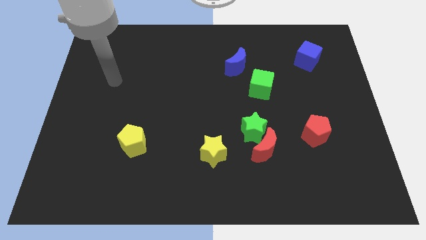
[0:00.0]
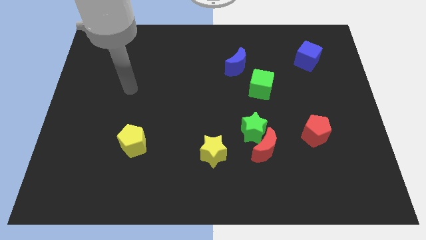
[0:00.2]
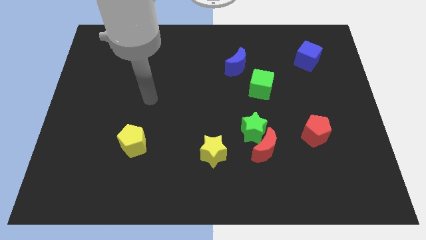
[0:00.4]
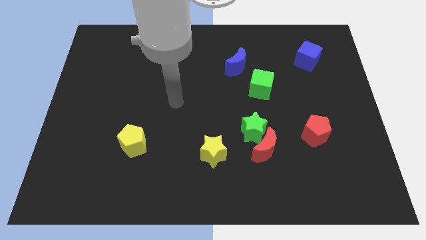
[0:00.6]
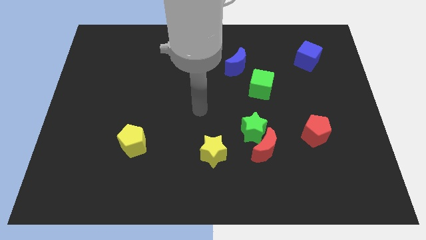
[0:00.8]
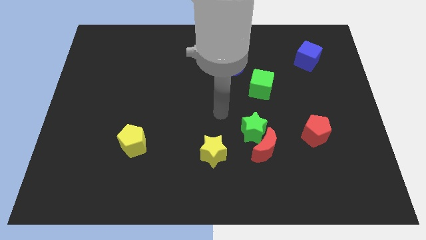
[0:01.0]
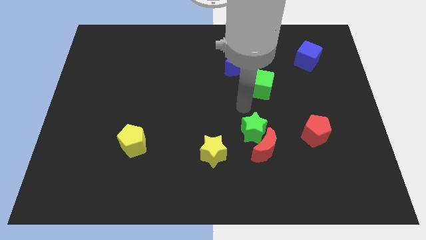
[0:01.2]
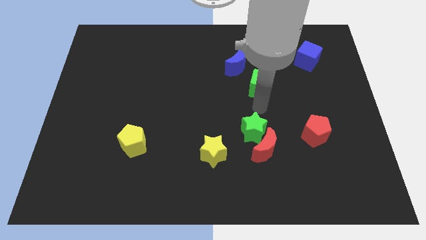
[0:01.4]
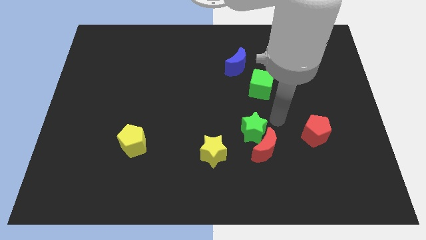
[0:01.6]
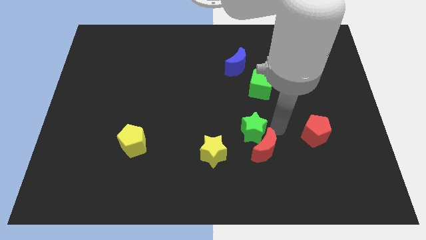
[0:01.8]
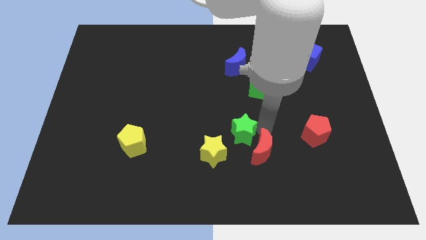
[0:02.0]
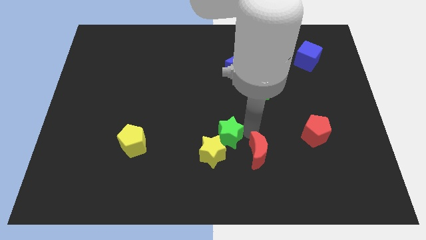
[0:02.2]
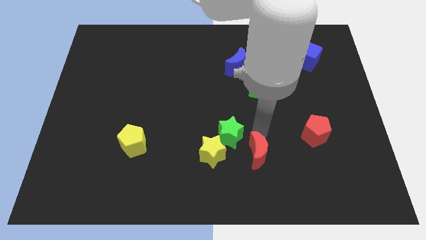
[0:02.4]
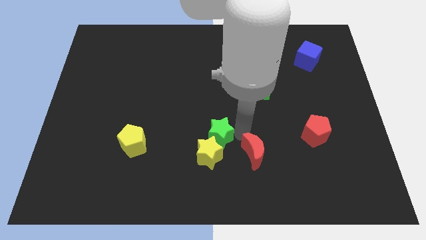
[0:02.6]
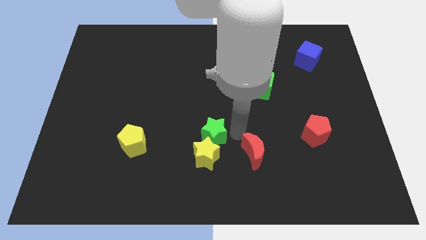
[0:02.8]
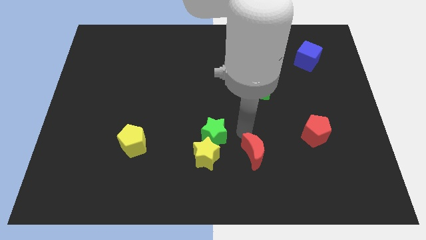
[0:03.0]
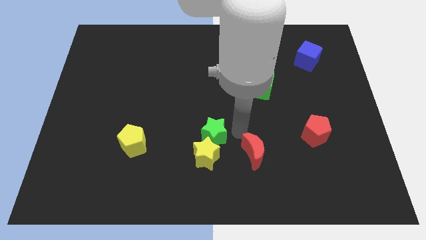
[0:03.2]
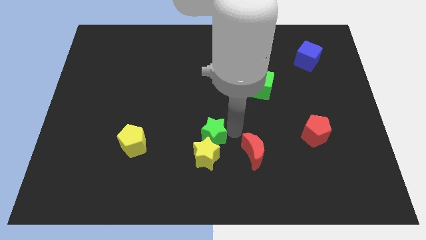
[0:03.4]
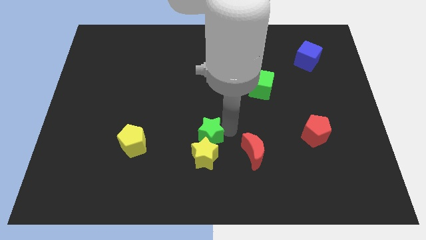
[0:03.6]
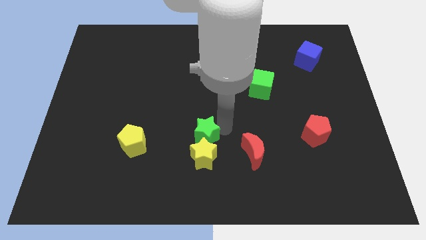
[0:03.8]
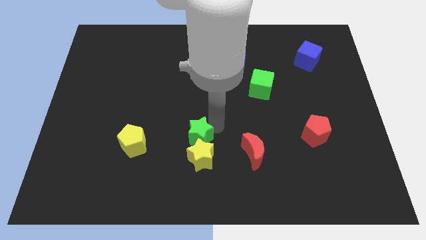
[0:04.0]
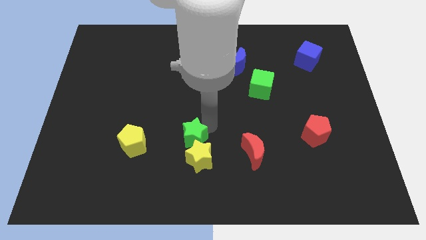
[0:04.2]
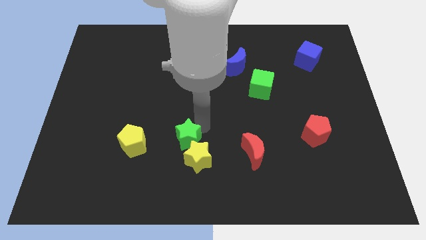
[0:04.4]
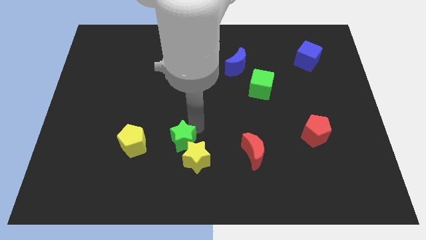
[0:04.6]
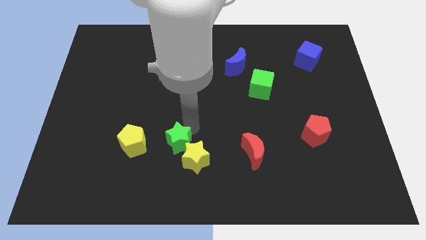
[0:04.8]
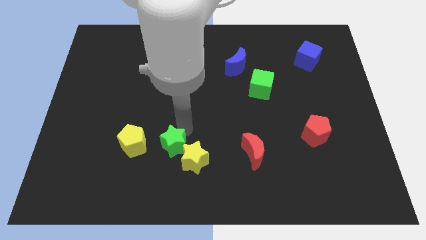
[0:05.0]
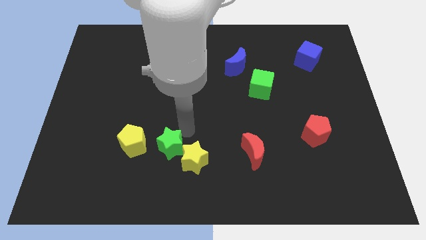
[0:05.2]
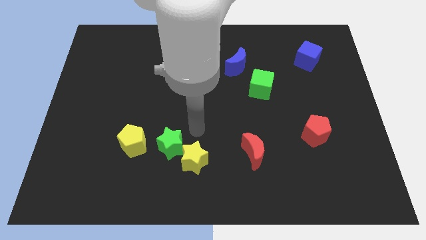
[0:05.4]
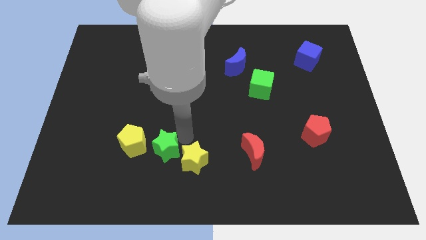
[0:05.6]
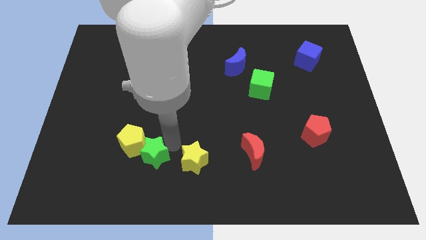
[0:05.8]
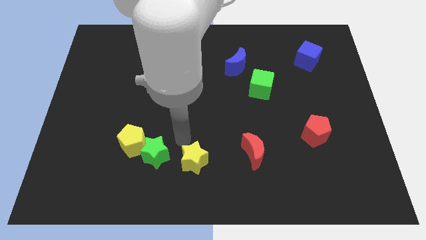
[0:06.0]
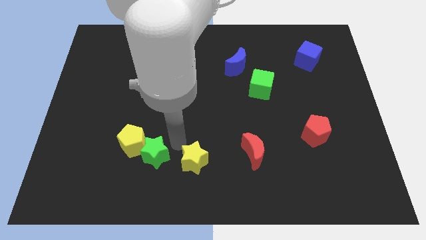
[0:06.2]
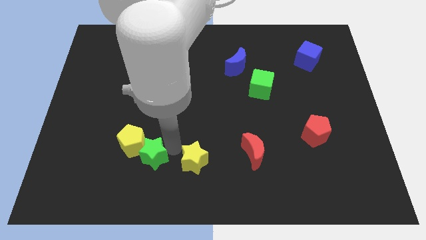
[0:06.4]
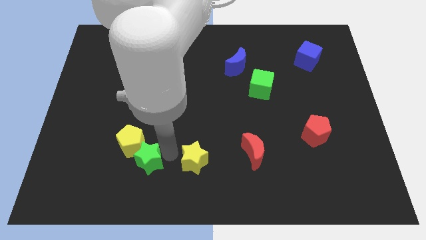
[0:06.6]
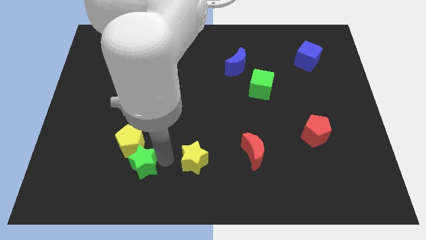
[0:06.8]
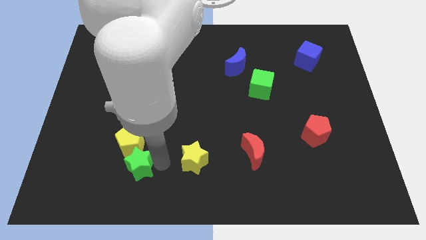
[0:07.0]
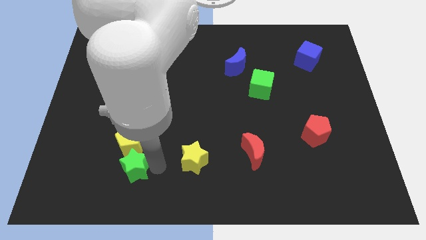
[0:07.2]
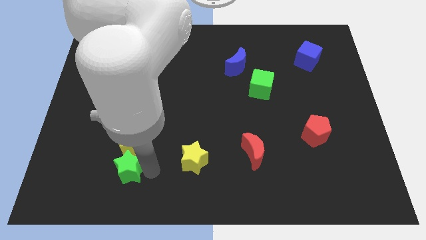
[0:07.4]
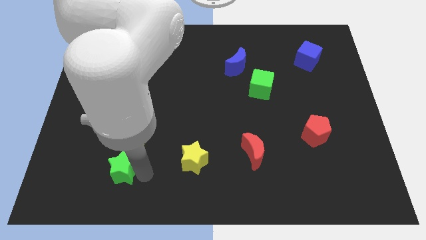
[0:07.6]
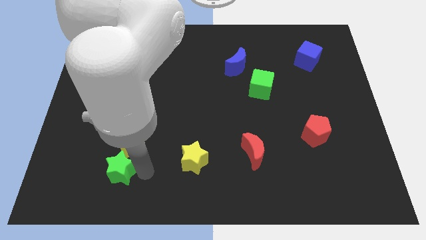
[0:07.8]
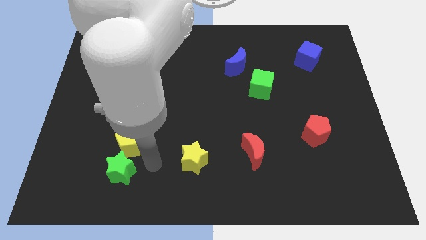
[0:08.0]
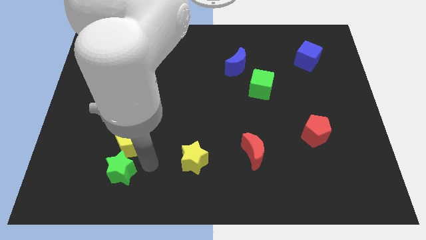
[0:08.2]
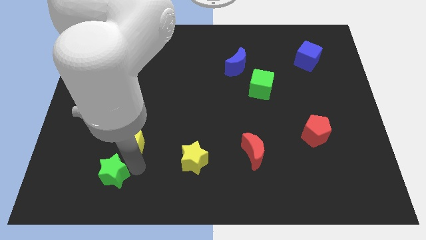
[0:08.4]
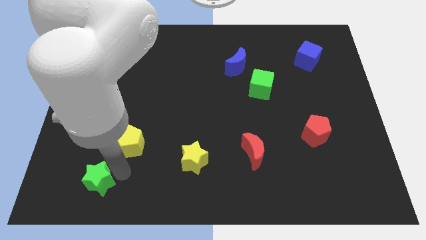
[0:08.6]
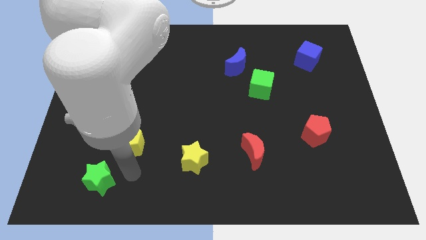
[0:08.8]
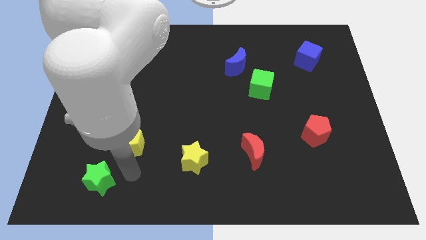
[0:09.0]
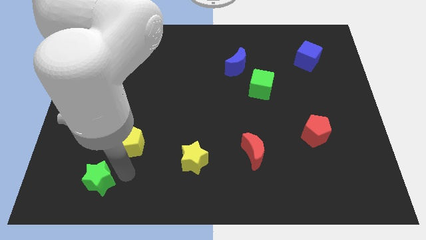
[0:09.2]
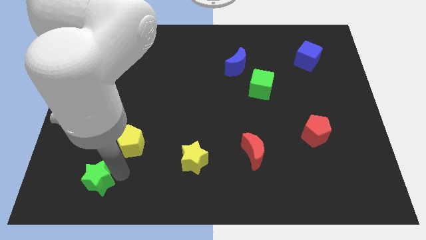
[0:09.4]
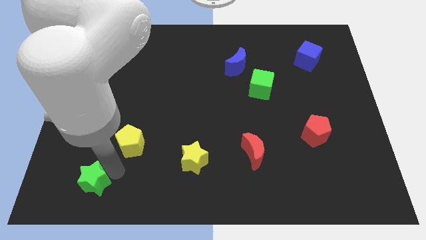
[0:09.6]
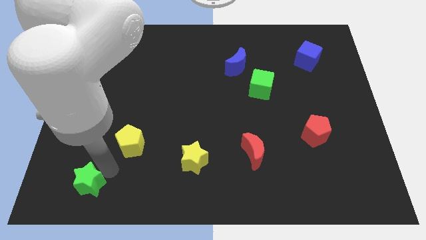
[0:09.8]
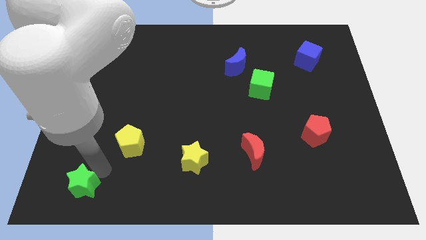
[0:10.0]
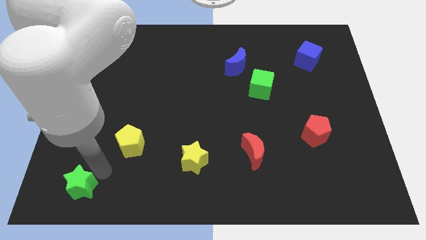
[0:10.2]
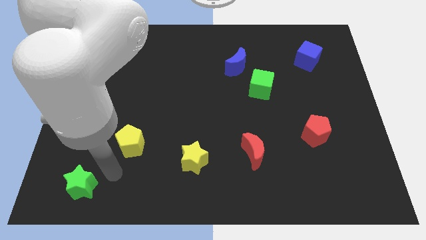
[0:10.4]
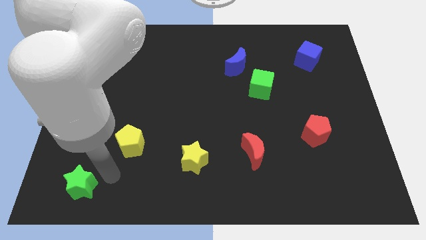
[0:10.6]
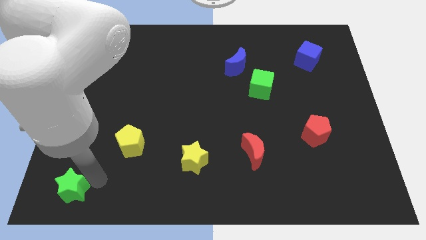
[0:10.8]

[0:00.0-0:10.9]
put the green star to the bottom left

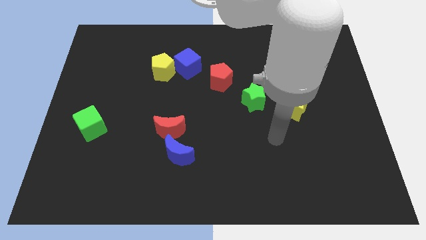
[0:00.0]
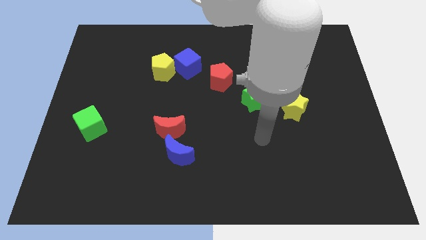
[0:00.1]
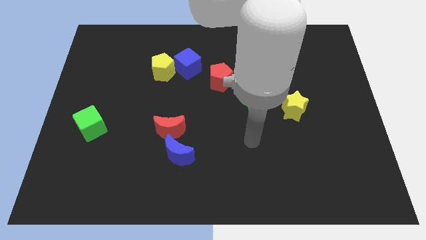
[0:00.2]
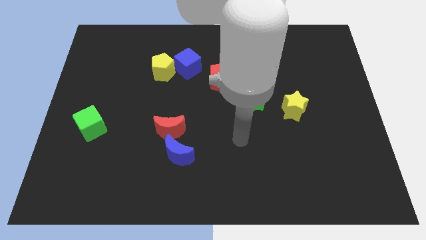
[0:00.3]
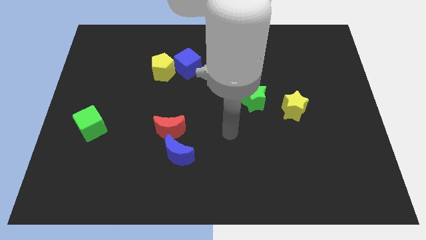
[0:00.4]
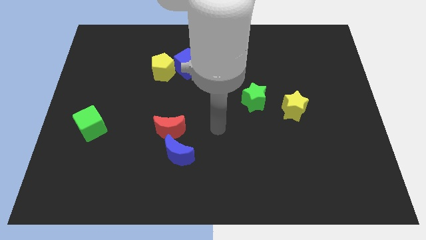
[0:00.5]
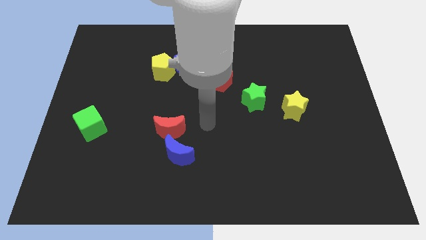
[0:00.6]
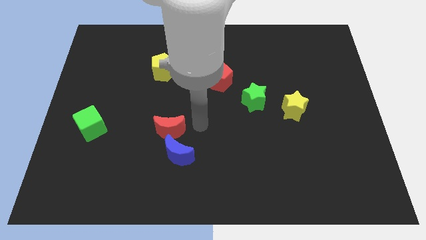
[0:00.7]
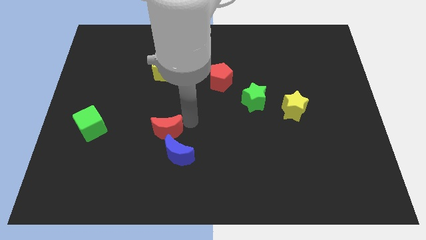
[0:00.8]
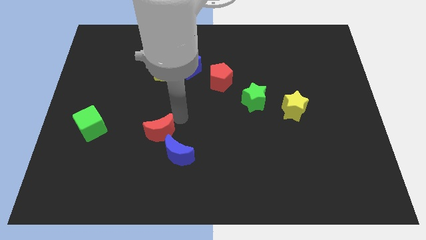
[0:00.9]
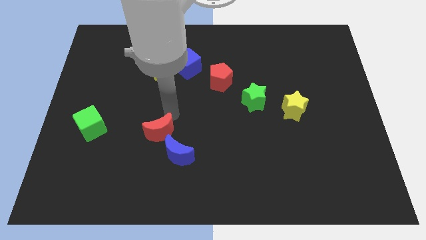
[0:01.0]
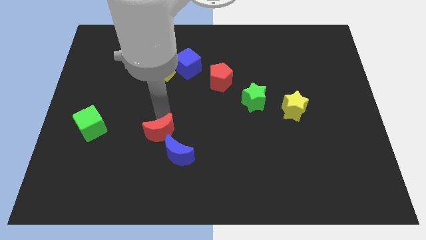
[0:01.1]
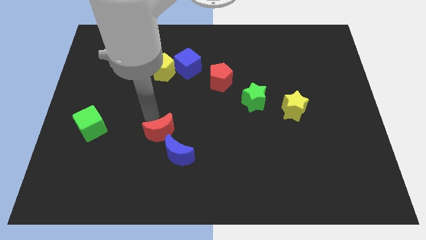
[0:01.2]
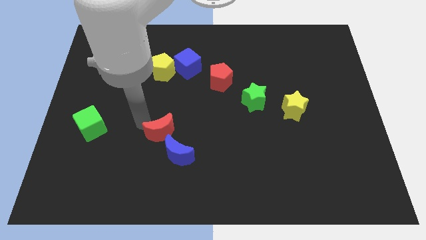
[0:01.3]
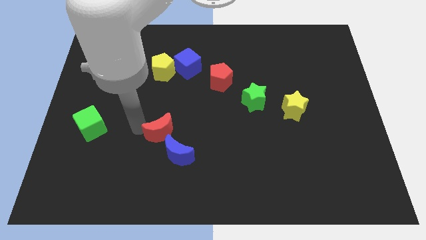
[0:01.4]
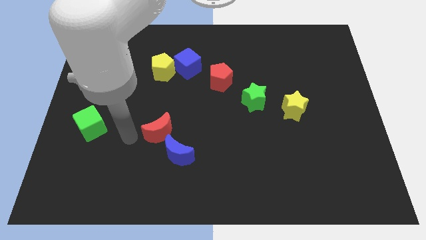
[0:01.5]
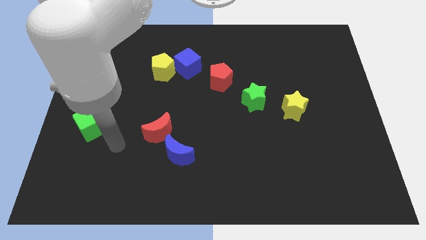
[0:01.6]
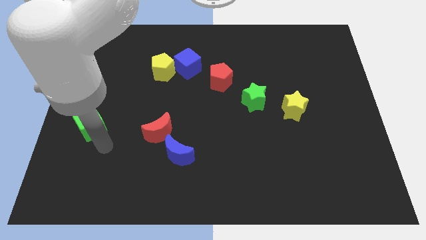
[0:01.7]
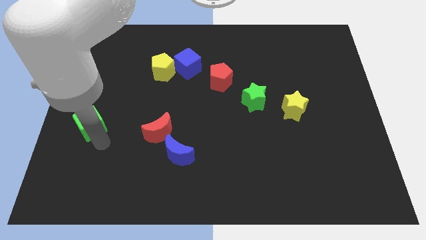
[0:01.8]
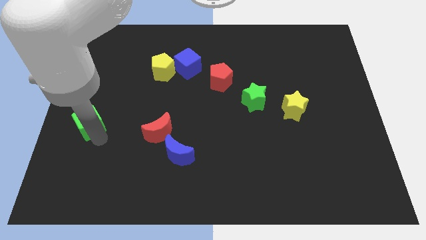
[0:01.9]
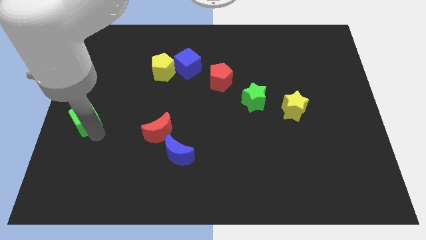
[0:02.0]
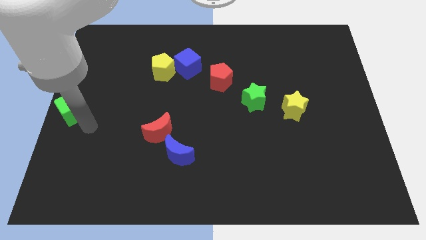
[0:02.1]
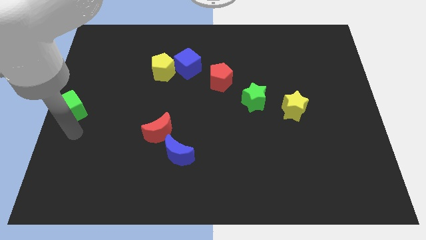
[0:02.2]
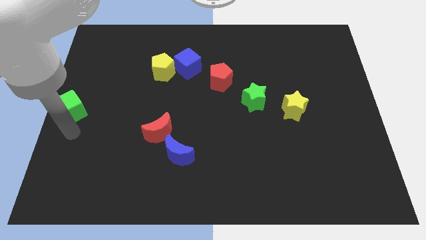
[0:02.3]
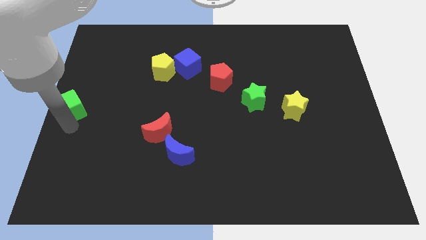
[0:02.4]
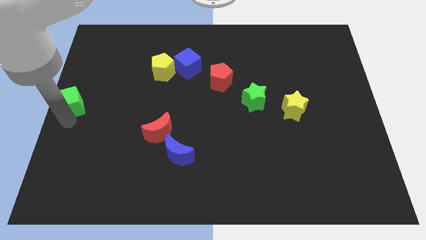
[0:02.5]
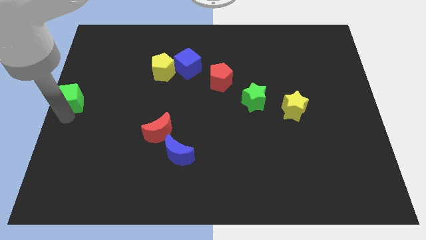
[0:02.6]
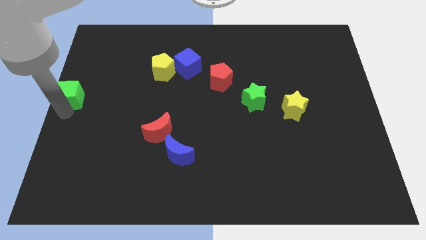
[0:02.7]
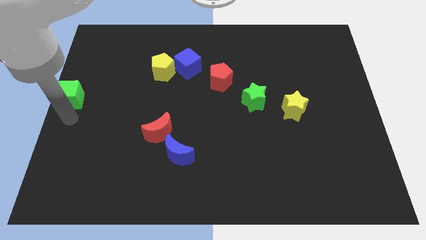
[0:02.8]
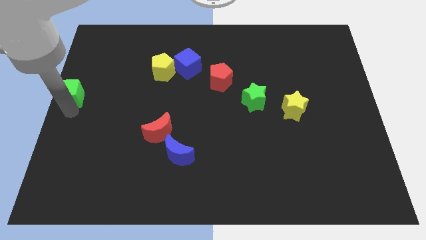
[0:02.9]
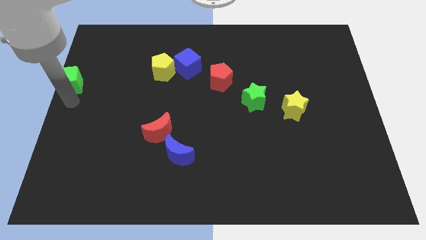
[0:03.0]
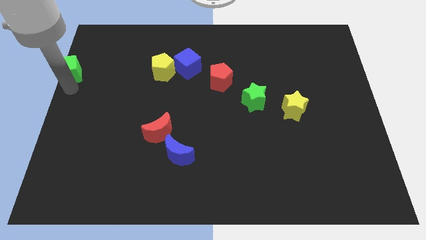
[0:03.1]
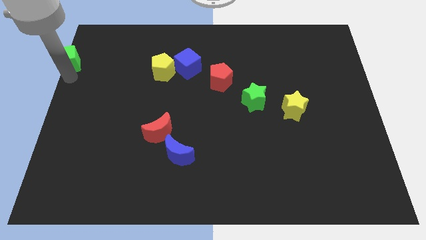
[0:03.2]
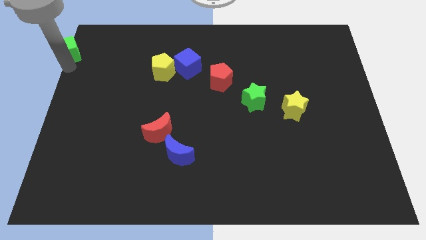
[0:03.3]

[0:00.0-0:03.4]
push the green cube to the top left corner
